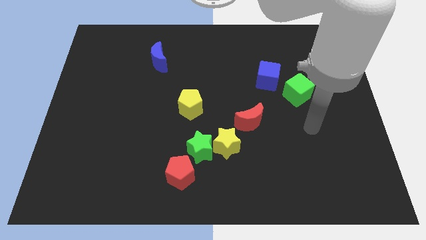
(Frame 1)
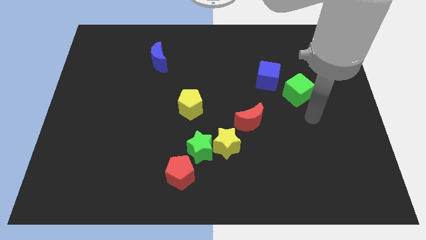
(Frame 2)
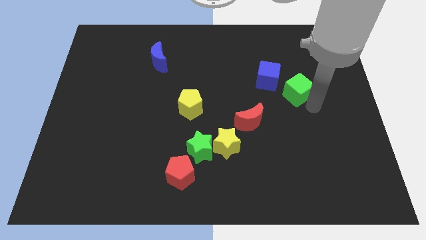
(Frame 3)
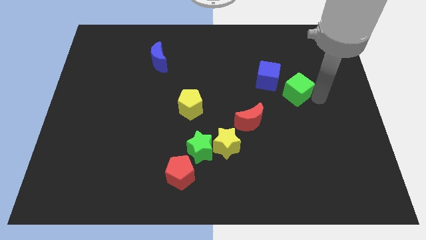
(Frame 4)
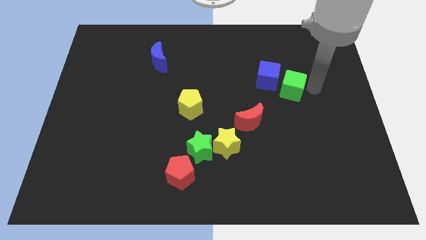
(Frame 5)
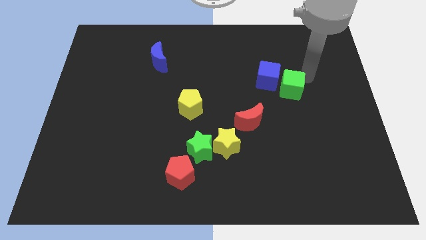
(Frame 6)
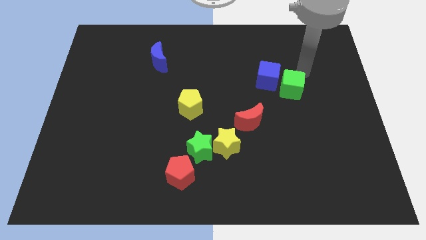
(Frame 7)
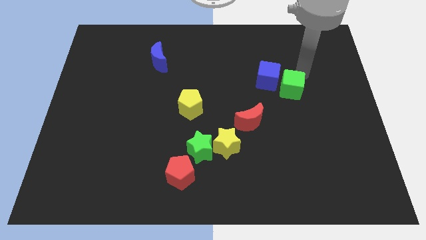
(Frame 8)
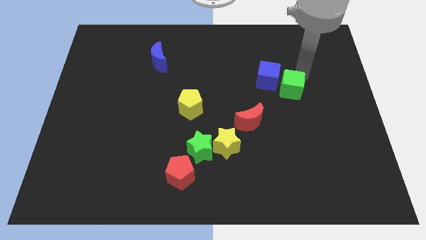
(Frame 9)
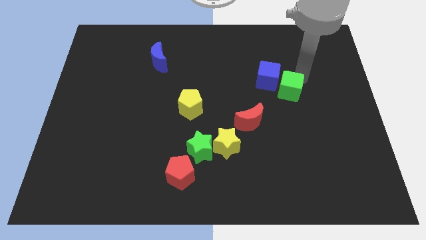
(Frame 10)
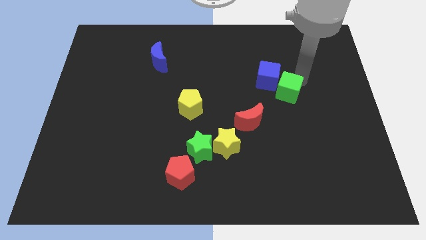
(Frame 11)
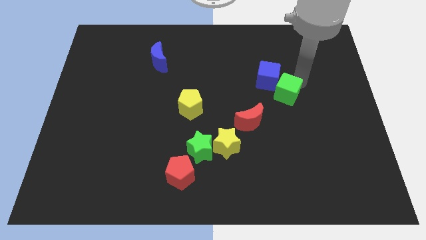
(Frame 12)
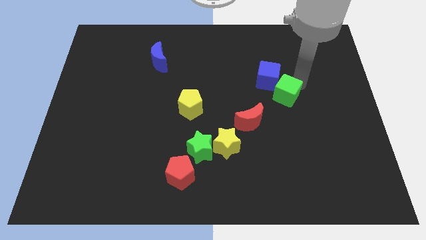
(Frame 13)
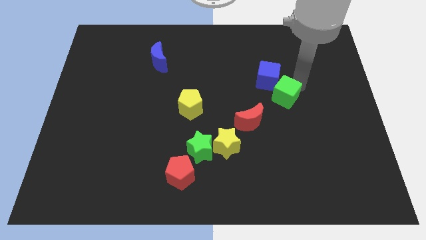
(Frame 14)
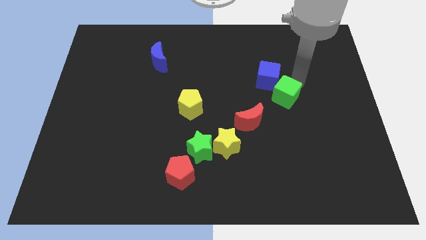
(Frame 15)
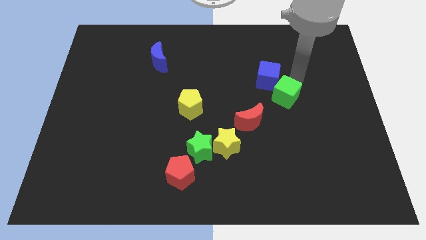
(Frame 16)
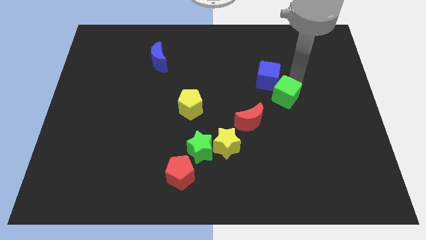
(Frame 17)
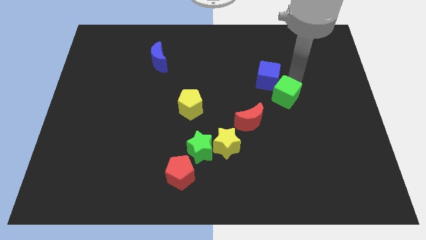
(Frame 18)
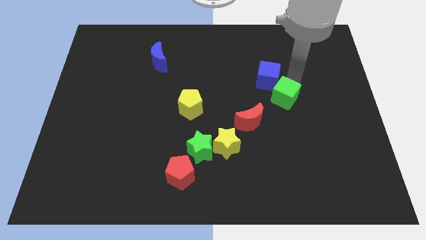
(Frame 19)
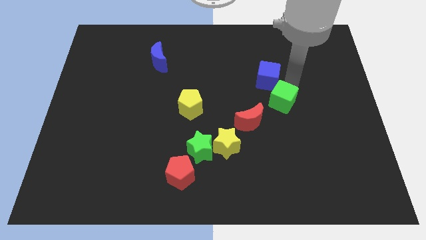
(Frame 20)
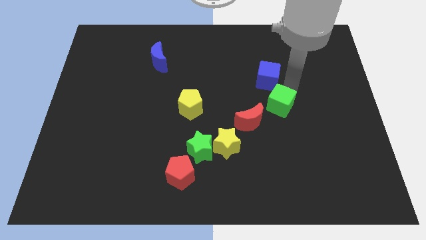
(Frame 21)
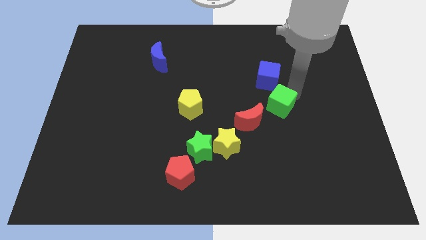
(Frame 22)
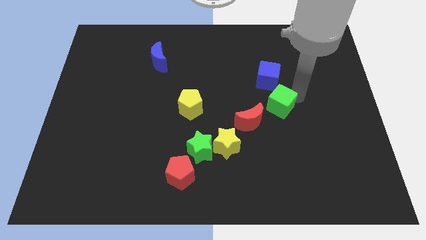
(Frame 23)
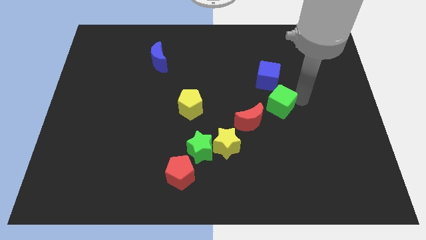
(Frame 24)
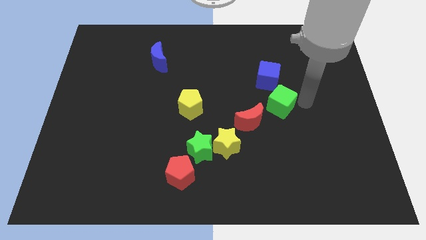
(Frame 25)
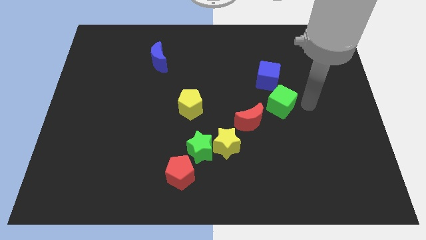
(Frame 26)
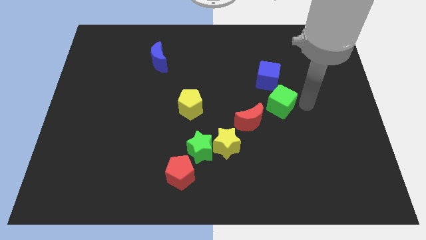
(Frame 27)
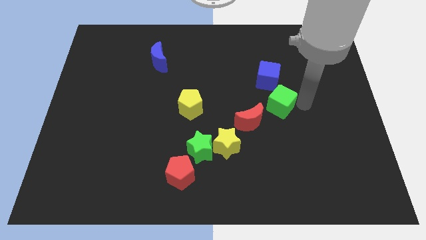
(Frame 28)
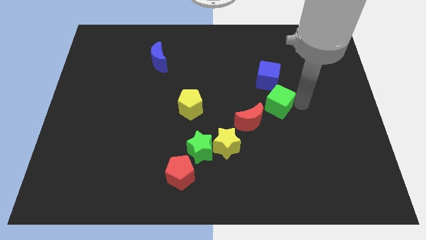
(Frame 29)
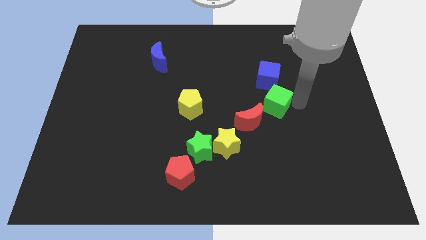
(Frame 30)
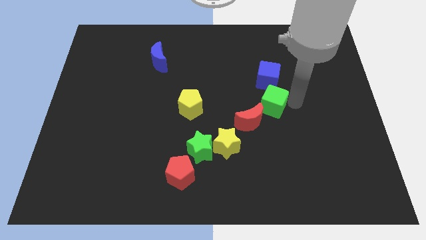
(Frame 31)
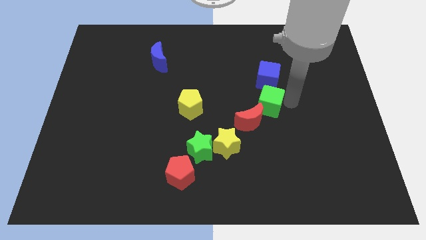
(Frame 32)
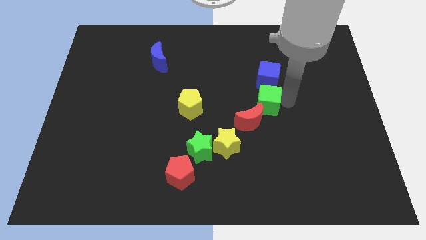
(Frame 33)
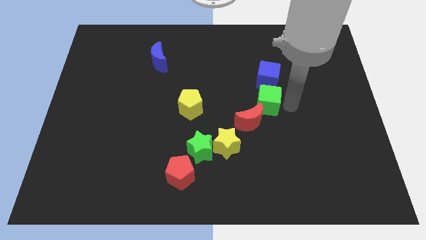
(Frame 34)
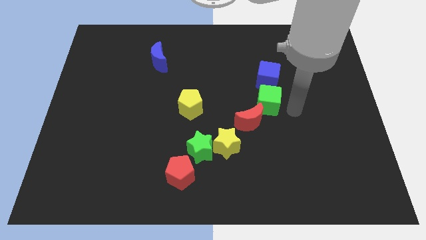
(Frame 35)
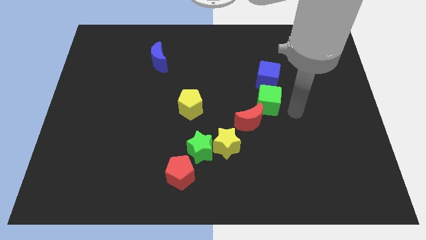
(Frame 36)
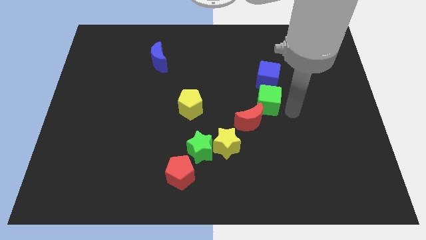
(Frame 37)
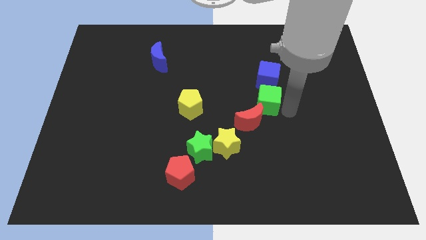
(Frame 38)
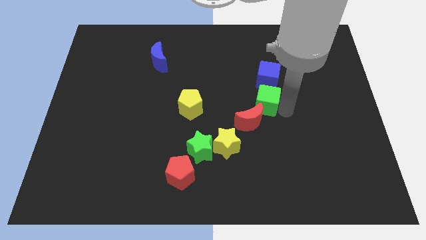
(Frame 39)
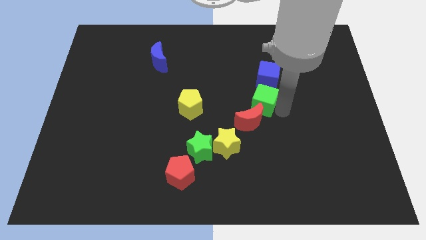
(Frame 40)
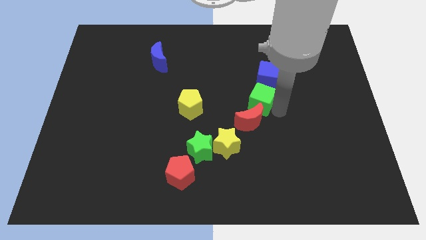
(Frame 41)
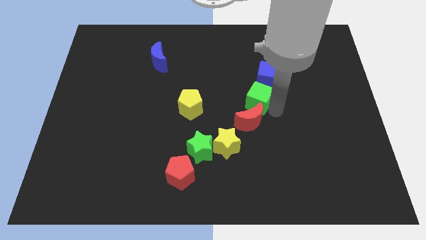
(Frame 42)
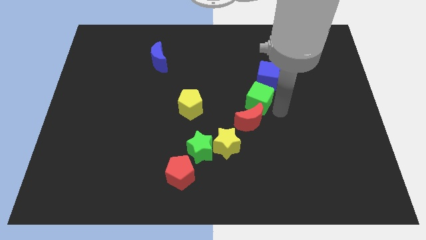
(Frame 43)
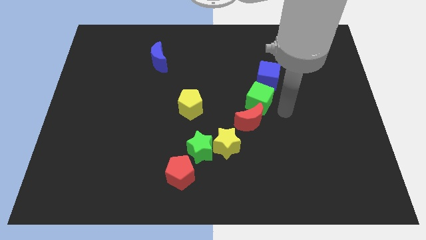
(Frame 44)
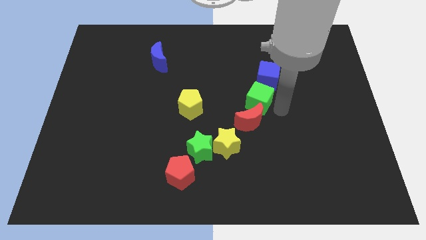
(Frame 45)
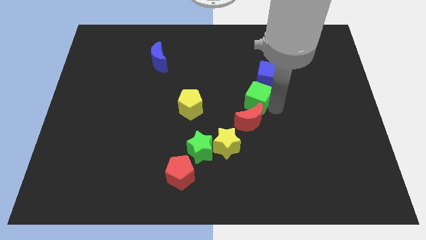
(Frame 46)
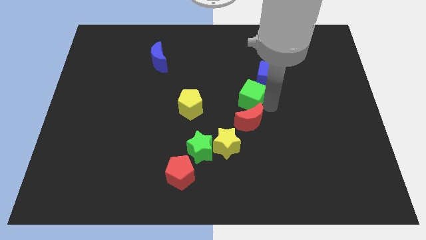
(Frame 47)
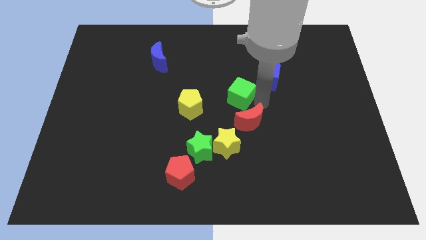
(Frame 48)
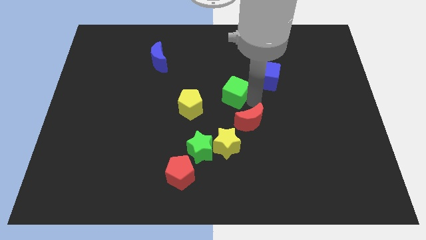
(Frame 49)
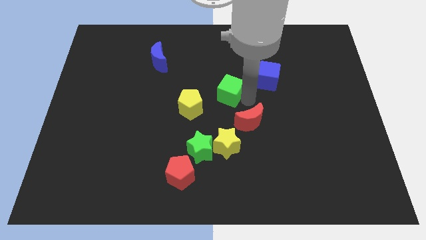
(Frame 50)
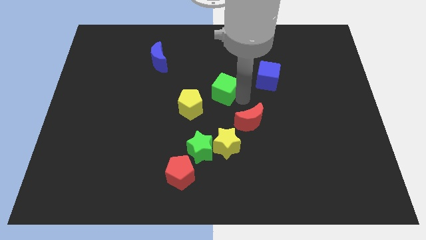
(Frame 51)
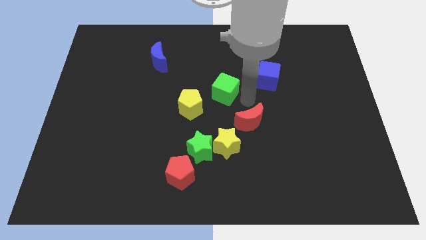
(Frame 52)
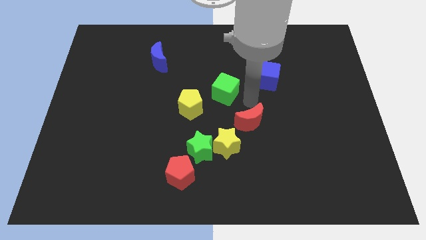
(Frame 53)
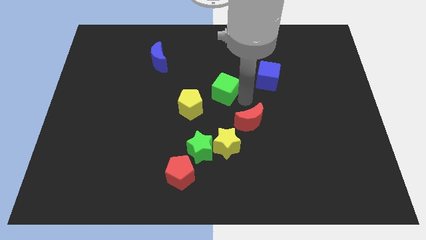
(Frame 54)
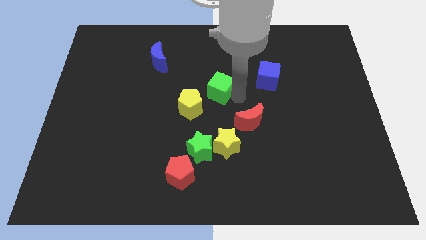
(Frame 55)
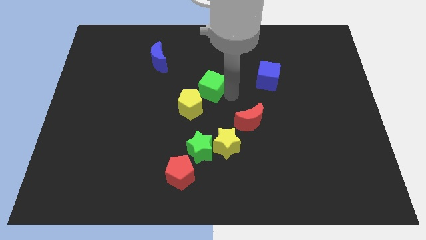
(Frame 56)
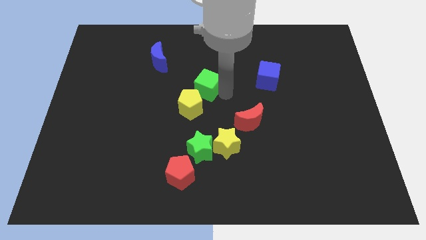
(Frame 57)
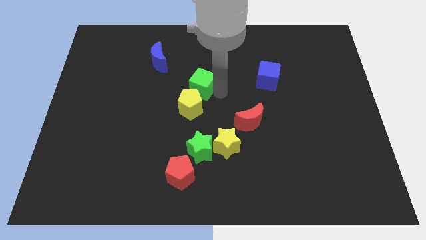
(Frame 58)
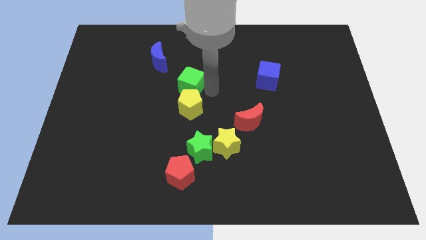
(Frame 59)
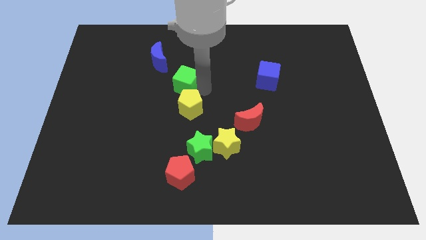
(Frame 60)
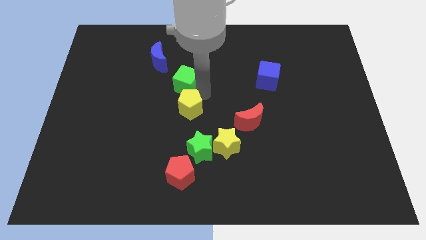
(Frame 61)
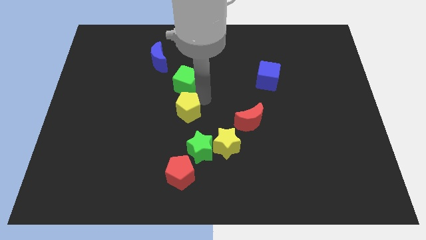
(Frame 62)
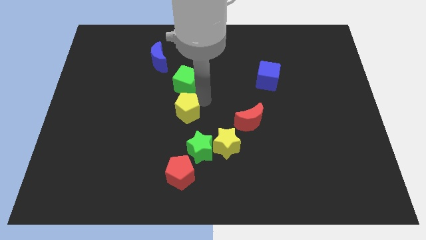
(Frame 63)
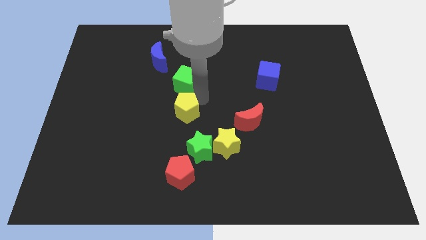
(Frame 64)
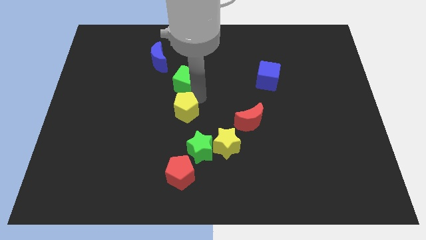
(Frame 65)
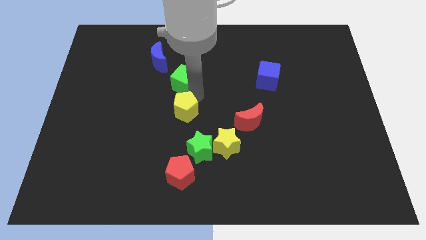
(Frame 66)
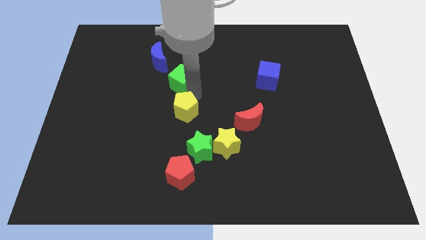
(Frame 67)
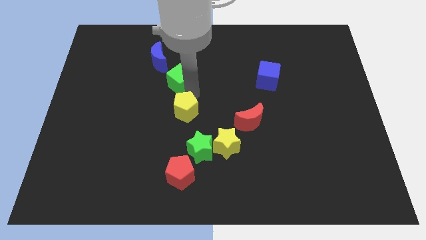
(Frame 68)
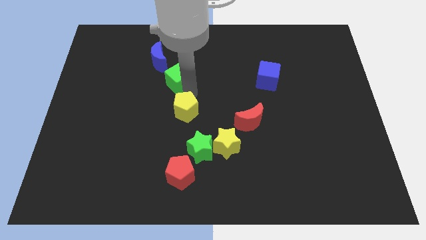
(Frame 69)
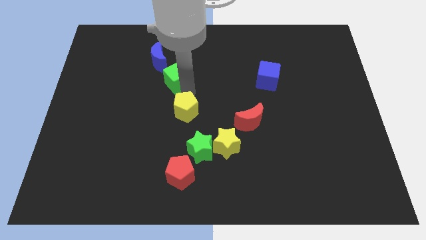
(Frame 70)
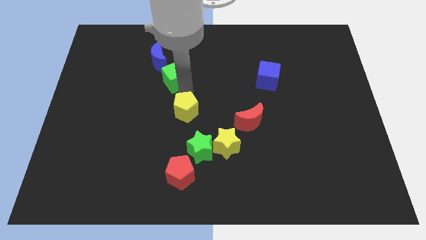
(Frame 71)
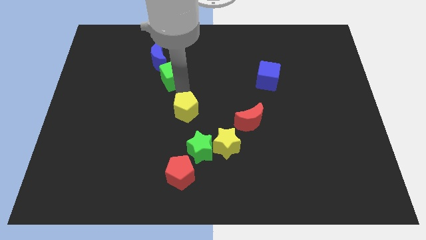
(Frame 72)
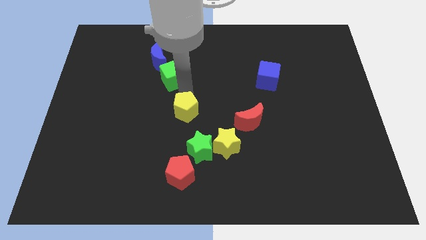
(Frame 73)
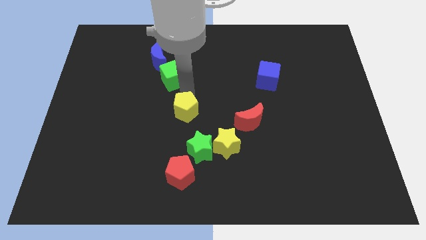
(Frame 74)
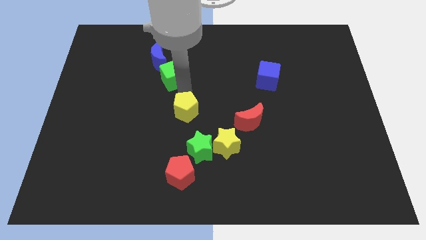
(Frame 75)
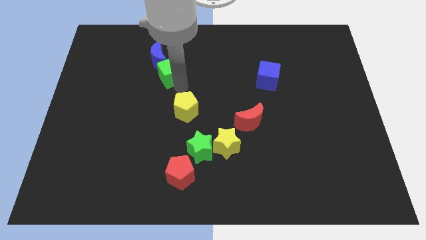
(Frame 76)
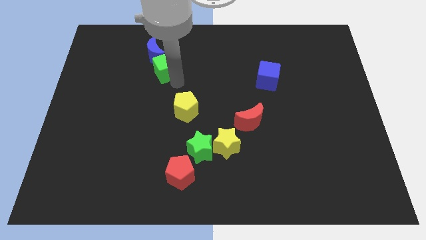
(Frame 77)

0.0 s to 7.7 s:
push the green cube next to the blue moon

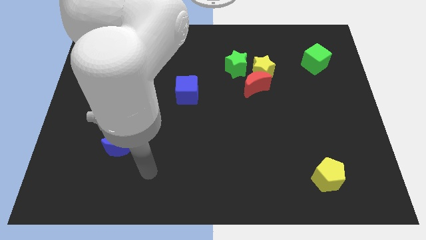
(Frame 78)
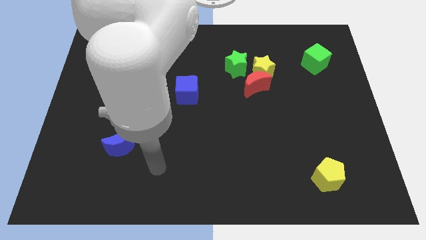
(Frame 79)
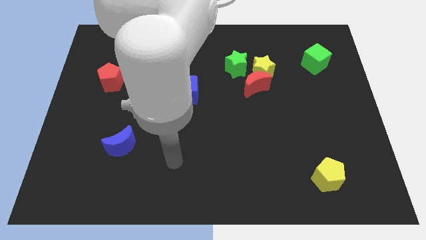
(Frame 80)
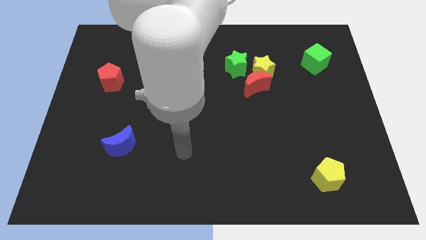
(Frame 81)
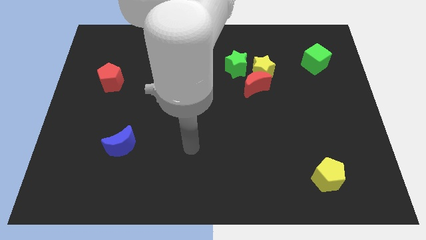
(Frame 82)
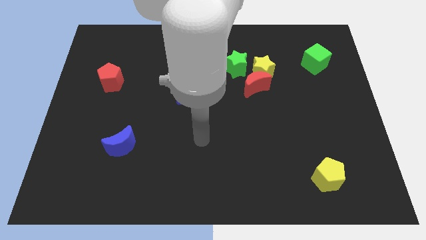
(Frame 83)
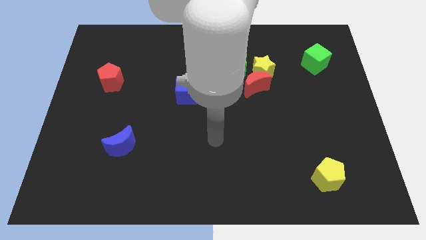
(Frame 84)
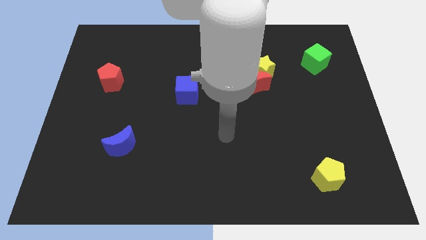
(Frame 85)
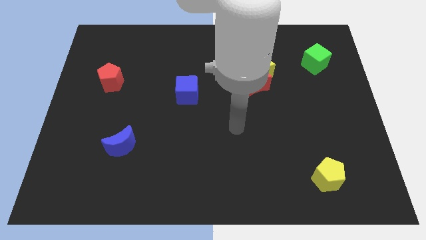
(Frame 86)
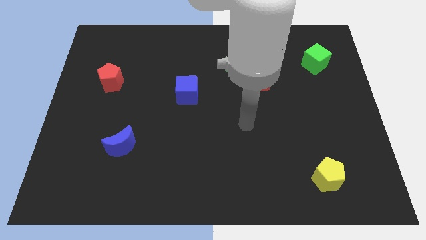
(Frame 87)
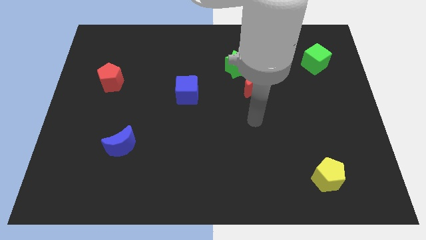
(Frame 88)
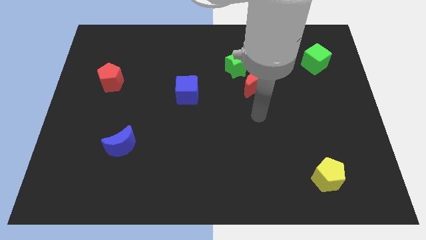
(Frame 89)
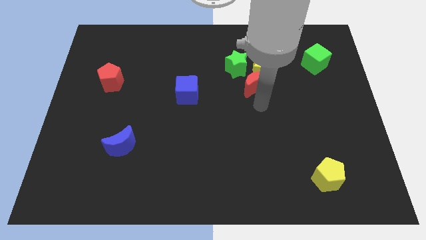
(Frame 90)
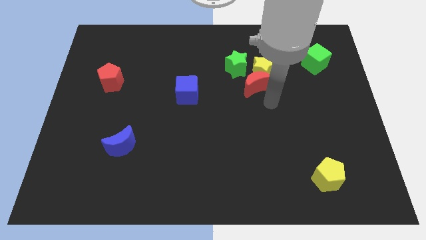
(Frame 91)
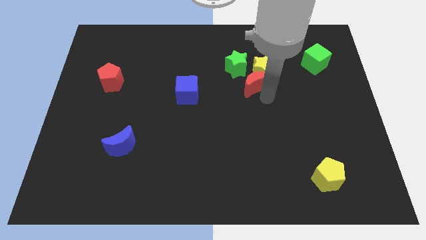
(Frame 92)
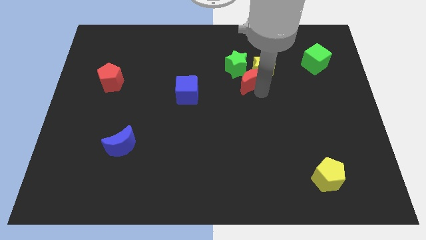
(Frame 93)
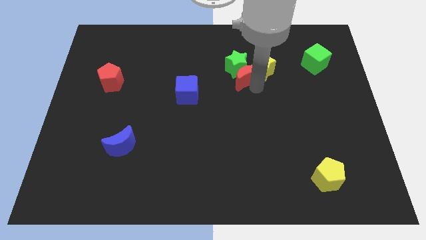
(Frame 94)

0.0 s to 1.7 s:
push the red moon close to the green star
